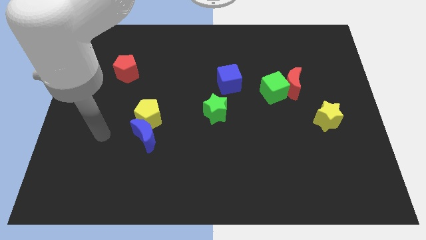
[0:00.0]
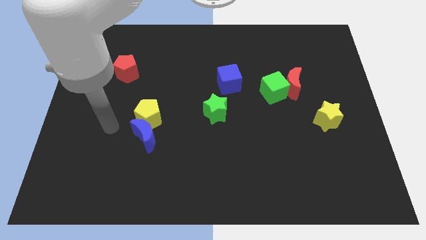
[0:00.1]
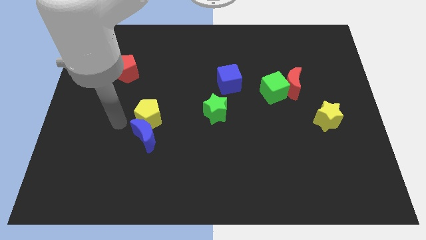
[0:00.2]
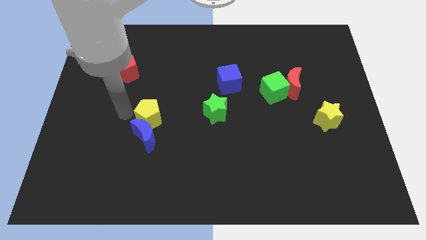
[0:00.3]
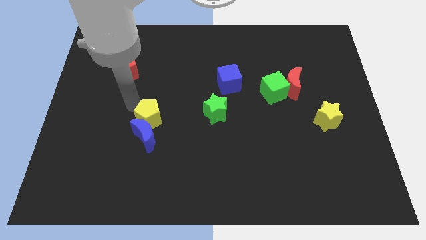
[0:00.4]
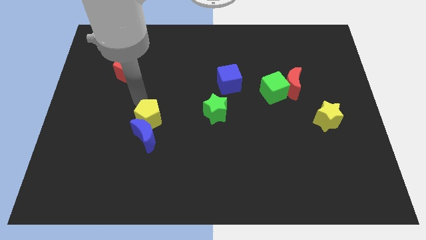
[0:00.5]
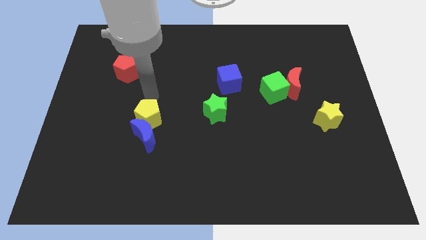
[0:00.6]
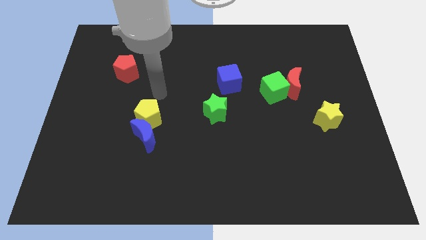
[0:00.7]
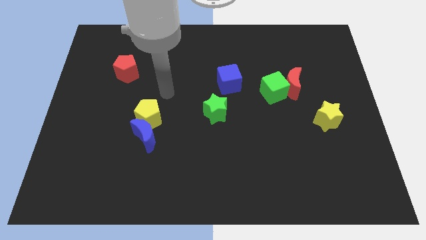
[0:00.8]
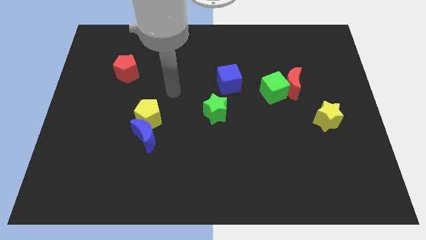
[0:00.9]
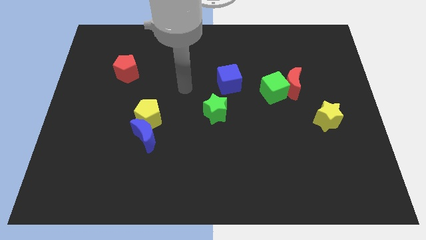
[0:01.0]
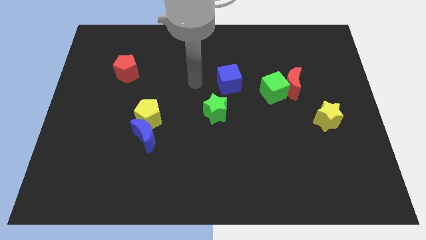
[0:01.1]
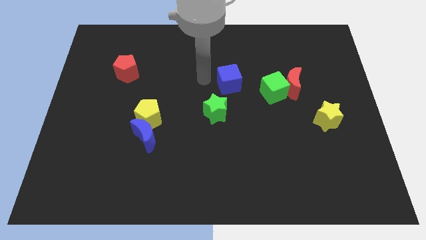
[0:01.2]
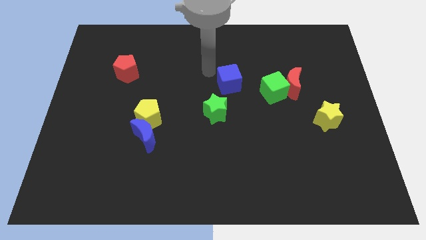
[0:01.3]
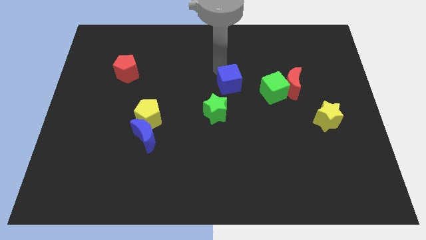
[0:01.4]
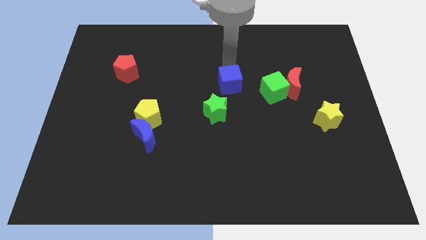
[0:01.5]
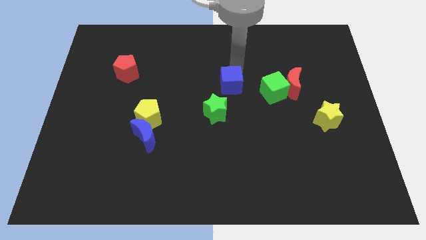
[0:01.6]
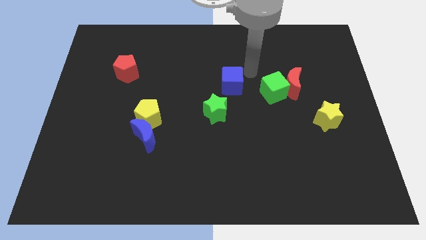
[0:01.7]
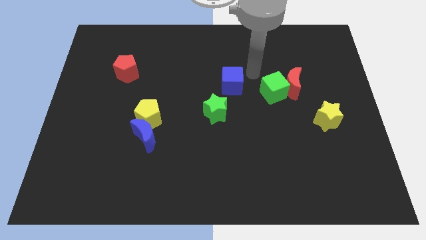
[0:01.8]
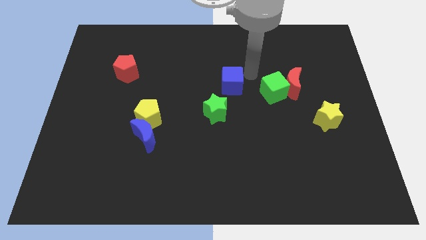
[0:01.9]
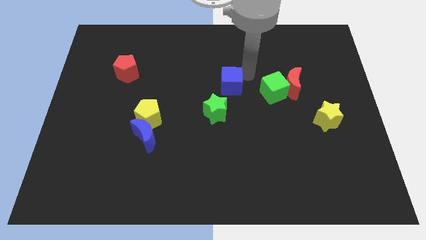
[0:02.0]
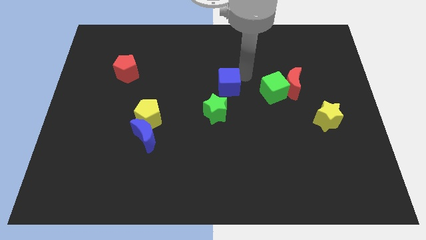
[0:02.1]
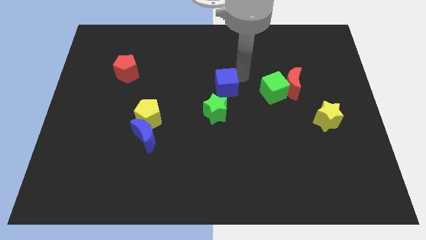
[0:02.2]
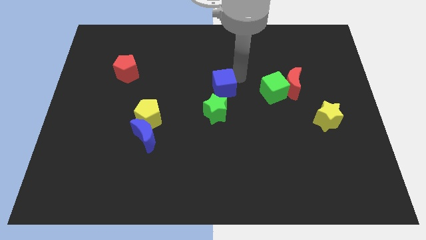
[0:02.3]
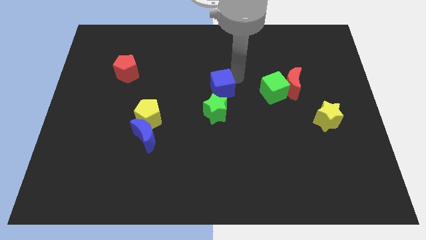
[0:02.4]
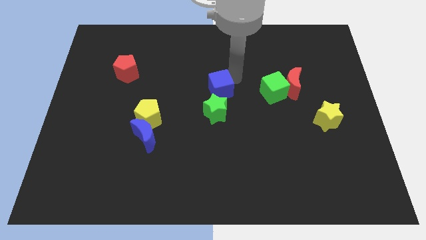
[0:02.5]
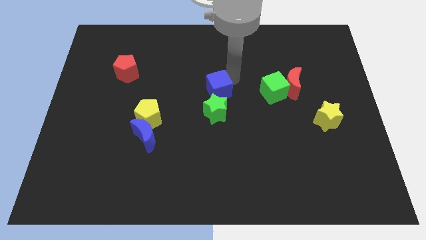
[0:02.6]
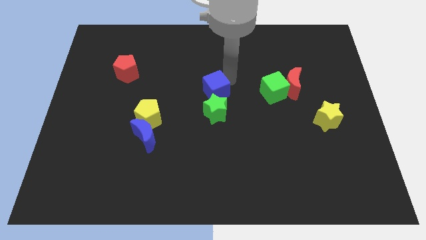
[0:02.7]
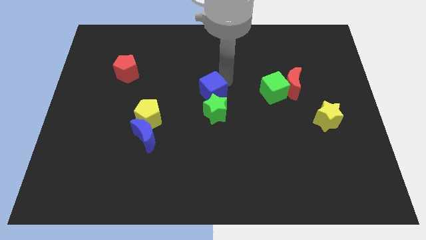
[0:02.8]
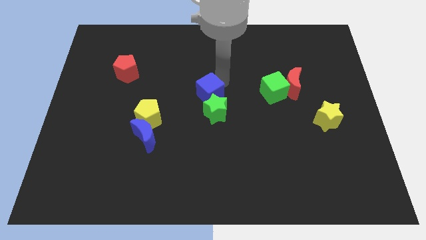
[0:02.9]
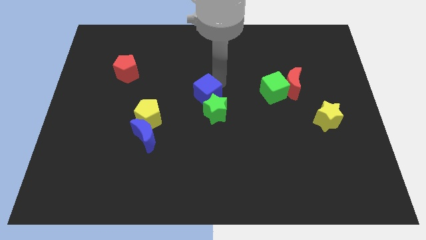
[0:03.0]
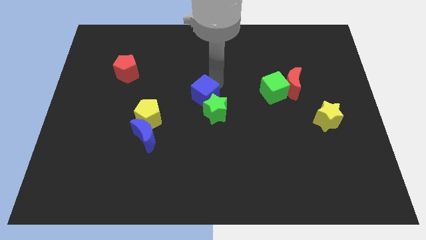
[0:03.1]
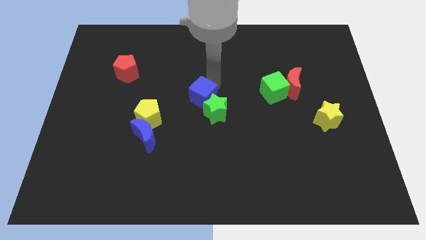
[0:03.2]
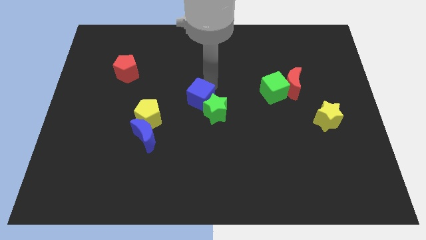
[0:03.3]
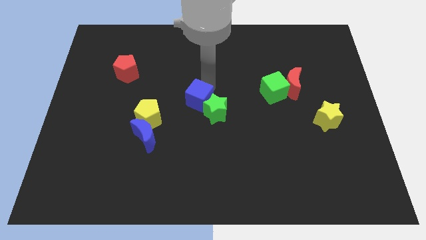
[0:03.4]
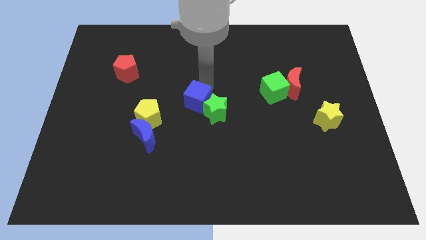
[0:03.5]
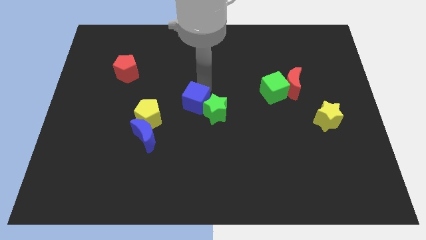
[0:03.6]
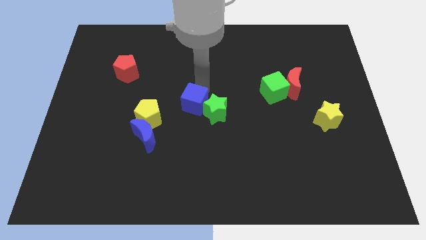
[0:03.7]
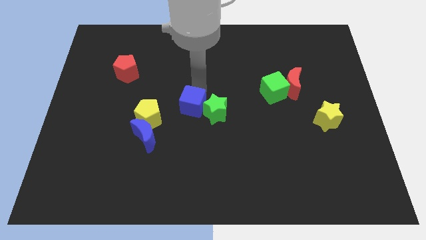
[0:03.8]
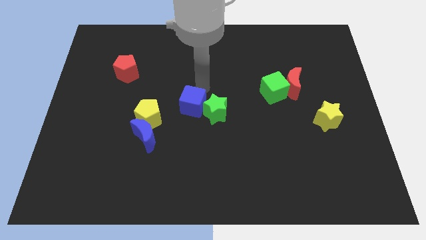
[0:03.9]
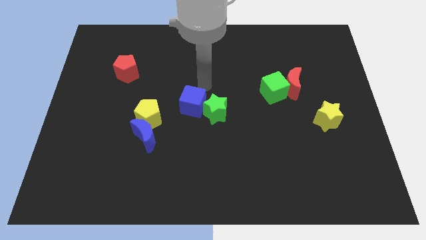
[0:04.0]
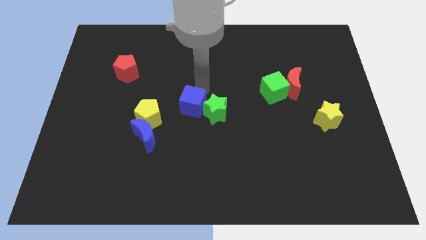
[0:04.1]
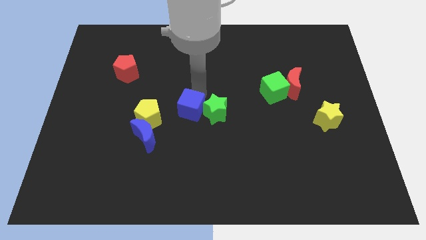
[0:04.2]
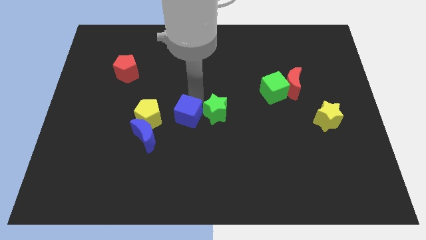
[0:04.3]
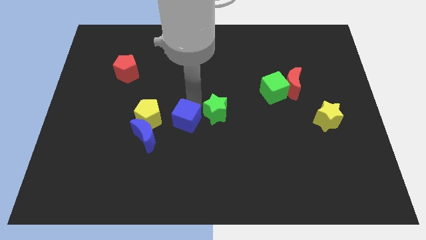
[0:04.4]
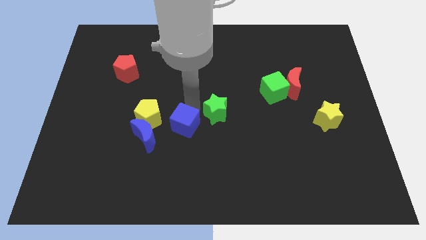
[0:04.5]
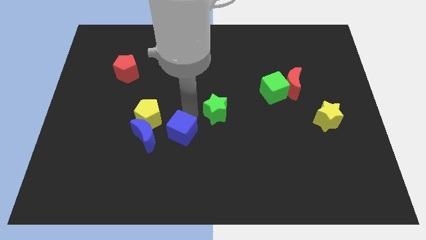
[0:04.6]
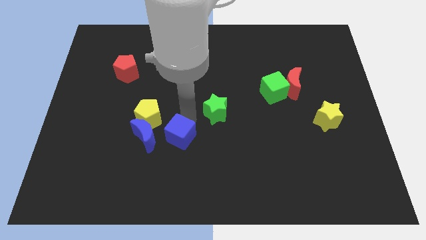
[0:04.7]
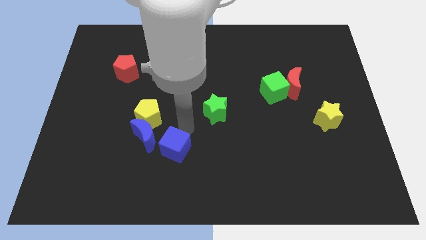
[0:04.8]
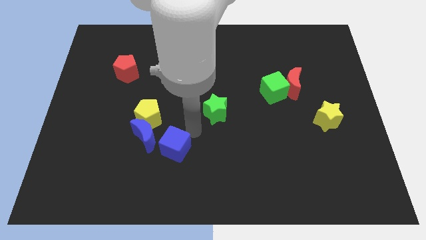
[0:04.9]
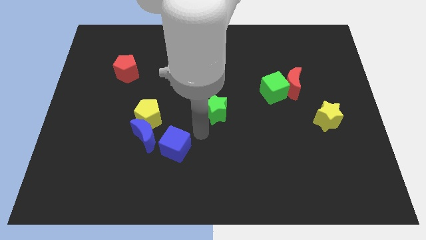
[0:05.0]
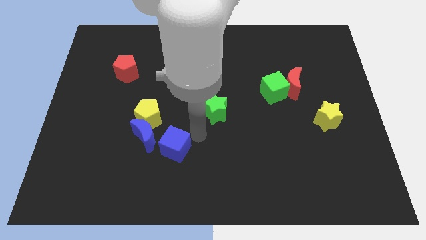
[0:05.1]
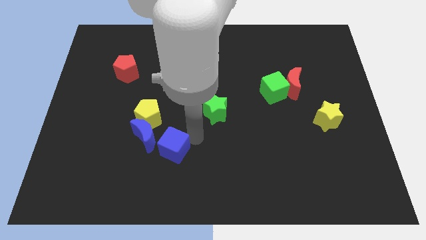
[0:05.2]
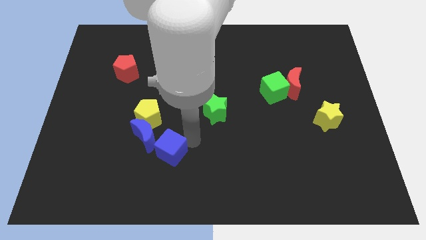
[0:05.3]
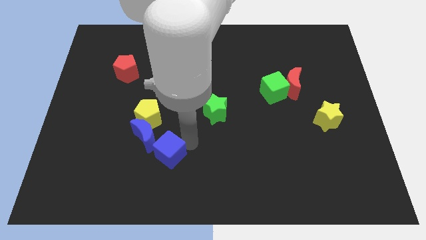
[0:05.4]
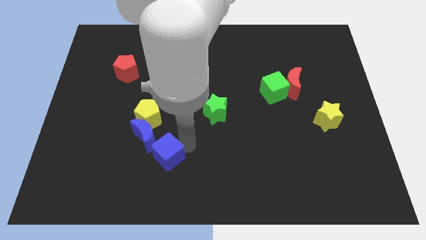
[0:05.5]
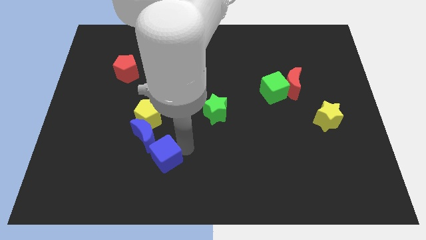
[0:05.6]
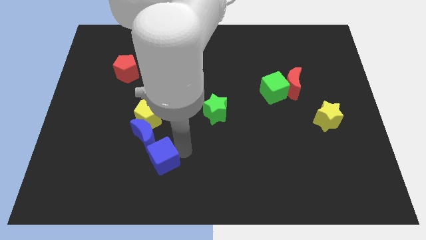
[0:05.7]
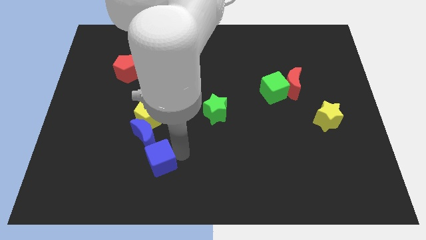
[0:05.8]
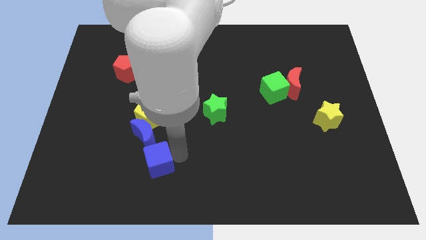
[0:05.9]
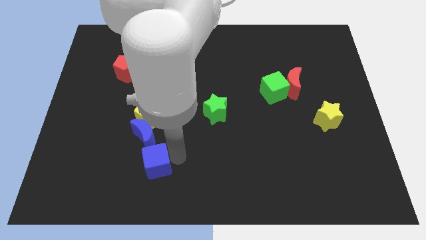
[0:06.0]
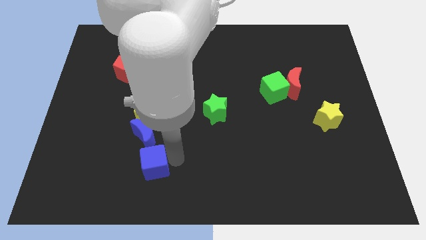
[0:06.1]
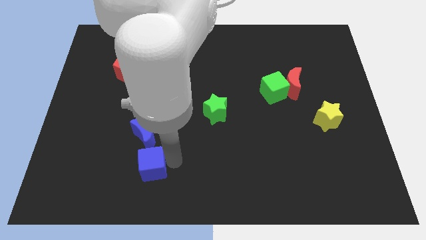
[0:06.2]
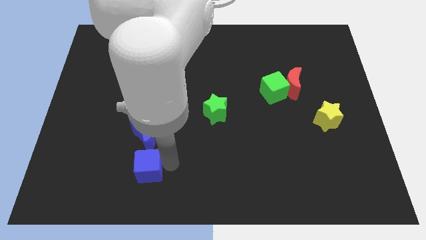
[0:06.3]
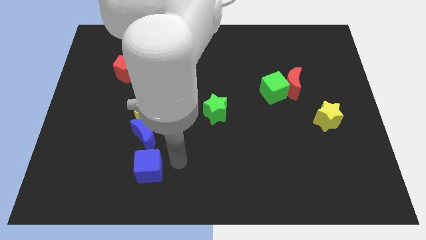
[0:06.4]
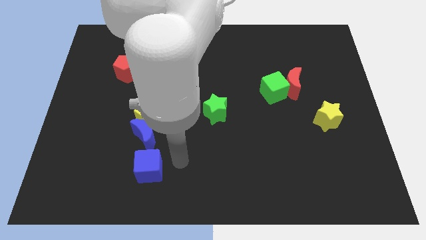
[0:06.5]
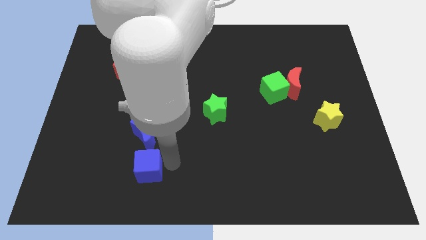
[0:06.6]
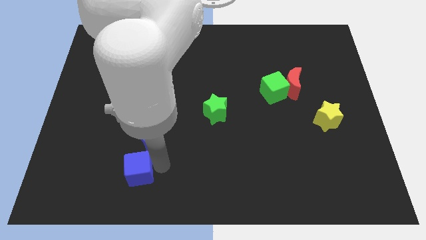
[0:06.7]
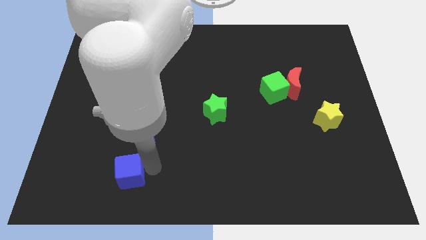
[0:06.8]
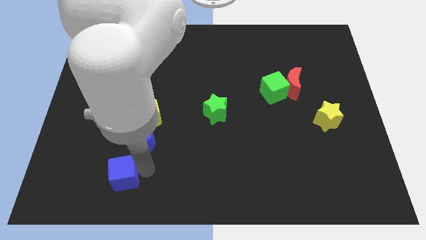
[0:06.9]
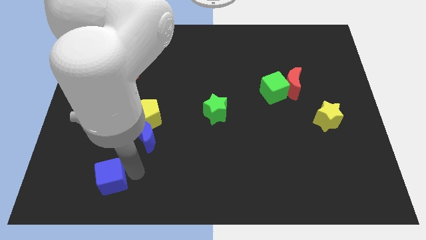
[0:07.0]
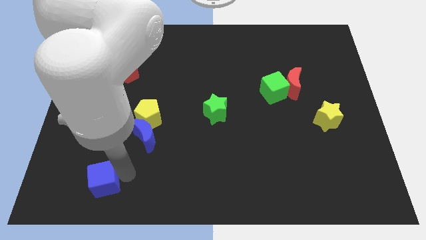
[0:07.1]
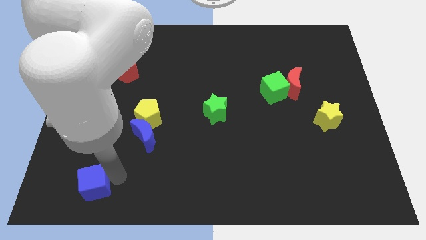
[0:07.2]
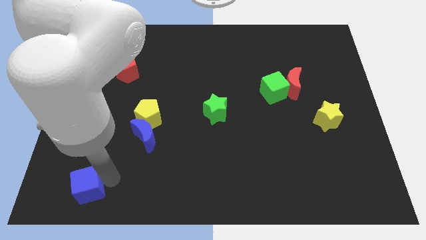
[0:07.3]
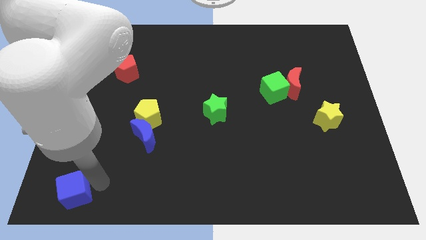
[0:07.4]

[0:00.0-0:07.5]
move the blue cube to the bottom left of the board

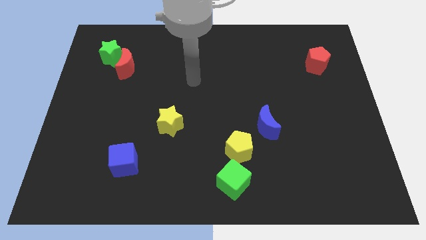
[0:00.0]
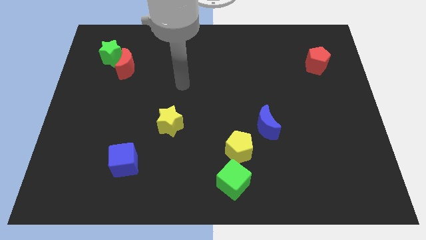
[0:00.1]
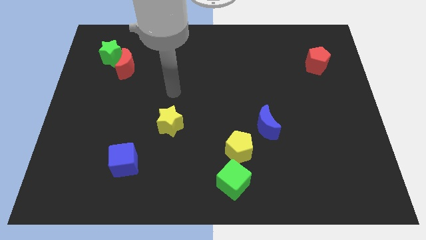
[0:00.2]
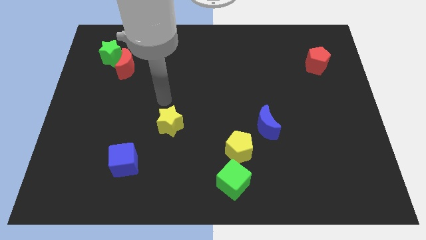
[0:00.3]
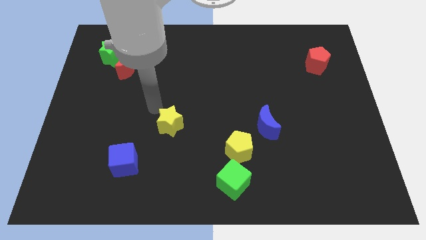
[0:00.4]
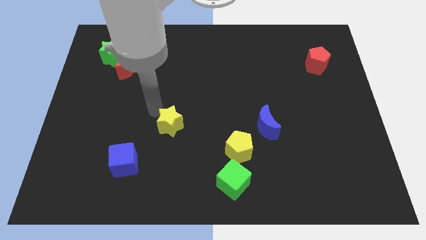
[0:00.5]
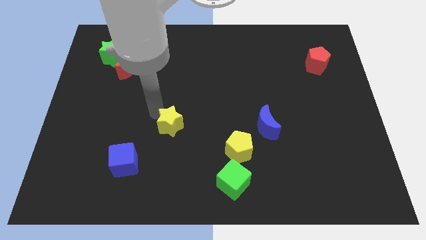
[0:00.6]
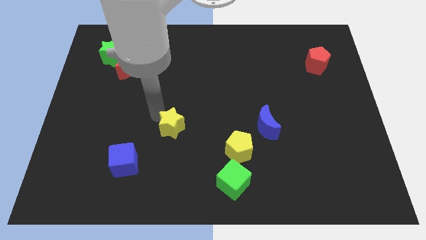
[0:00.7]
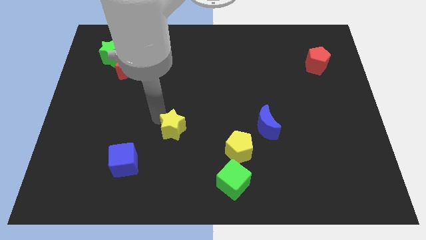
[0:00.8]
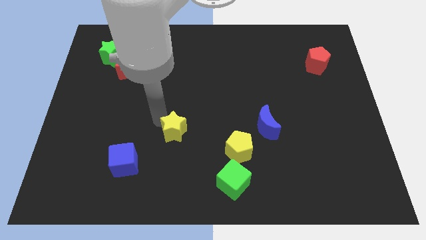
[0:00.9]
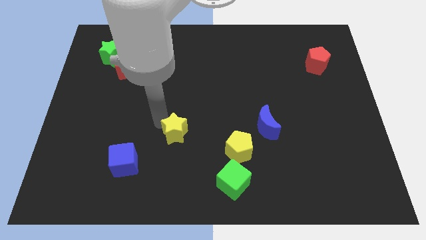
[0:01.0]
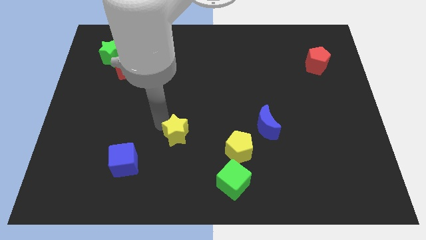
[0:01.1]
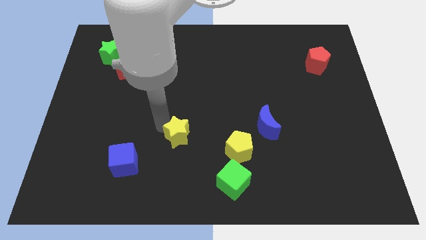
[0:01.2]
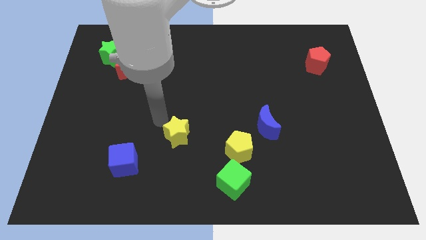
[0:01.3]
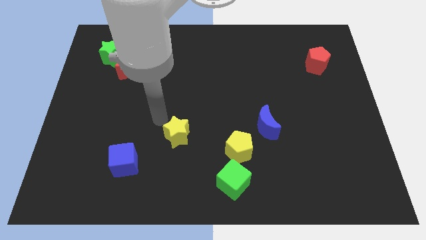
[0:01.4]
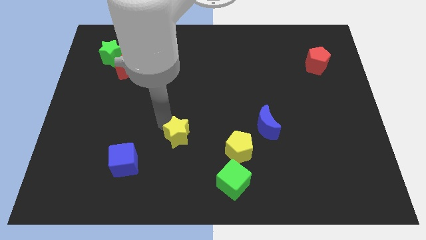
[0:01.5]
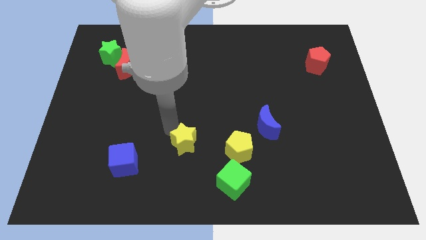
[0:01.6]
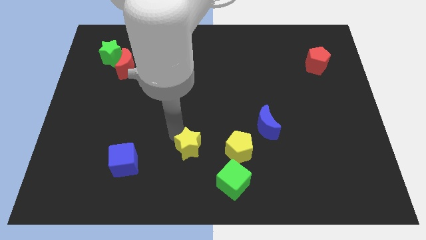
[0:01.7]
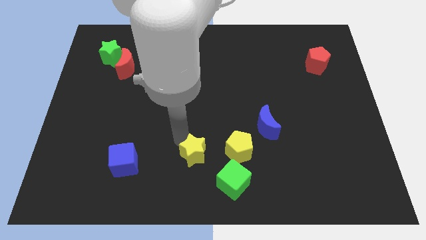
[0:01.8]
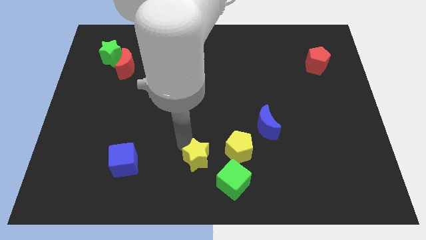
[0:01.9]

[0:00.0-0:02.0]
put the yellow star to the bottom side
